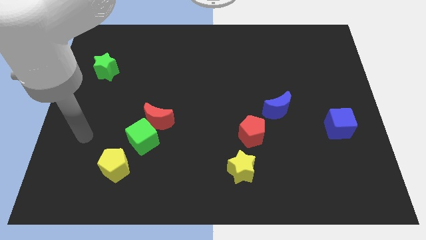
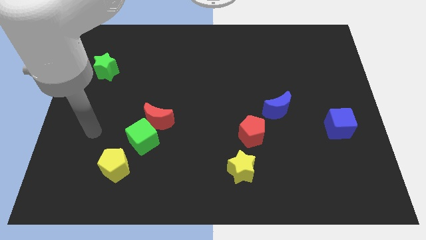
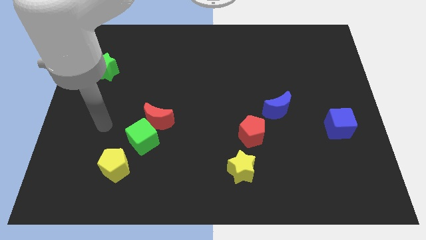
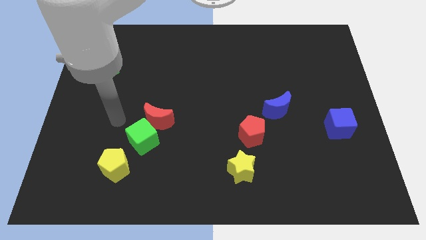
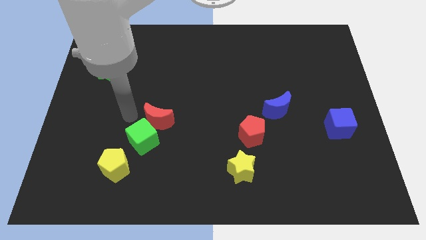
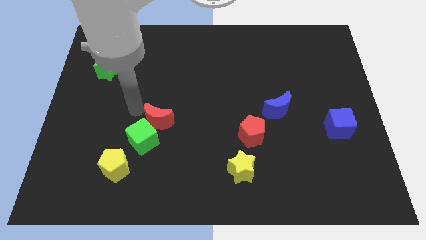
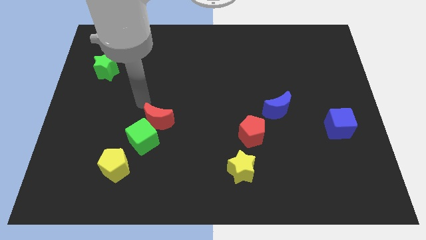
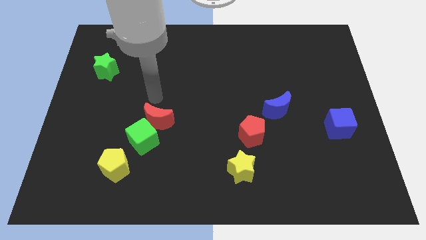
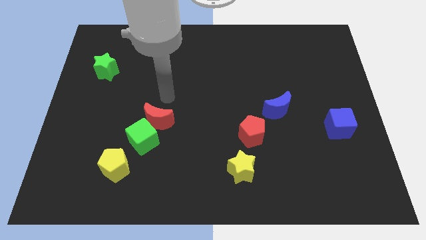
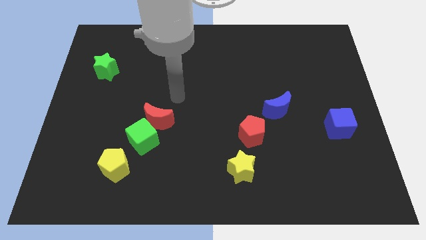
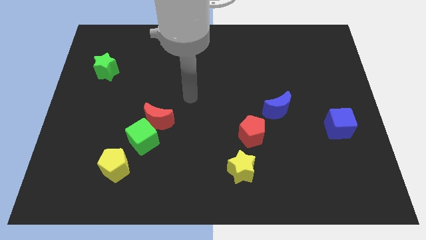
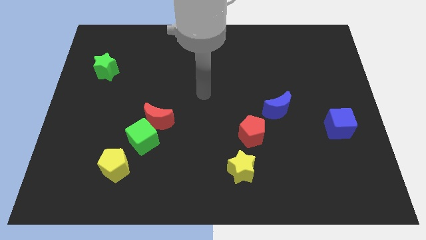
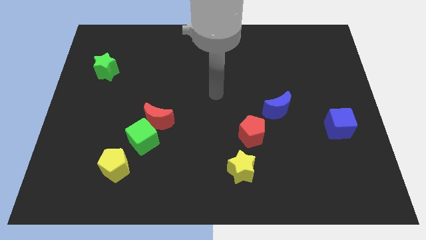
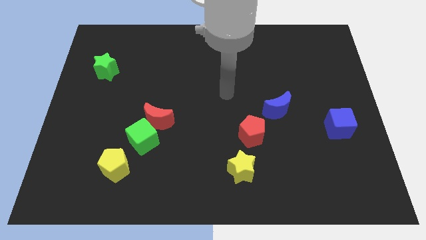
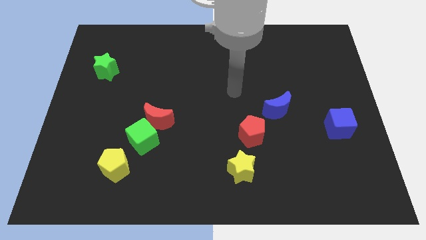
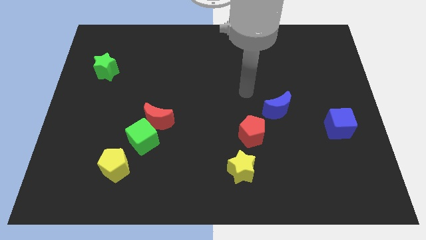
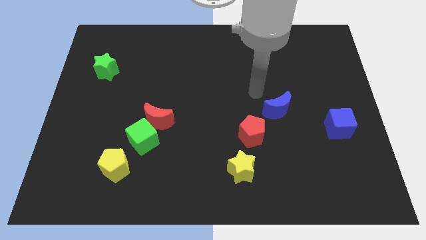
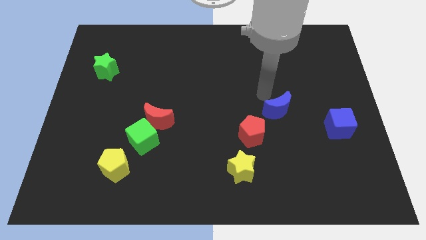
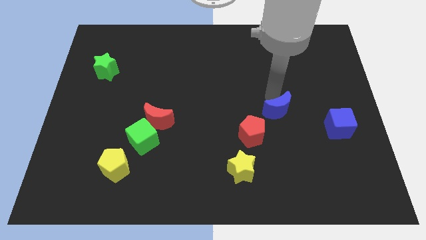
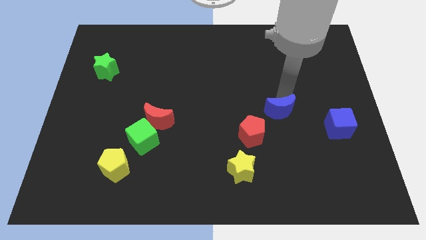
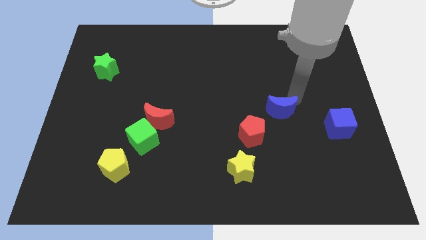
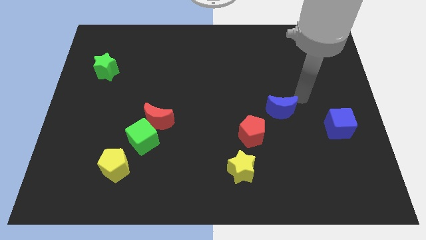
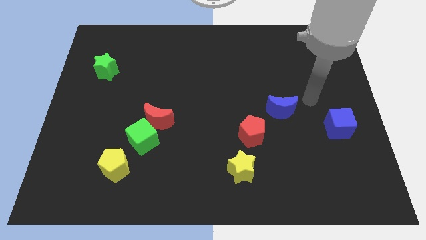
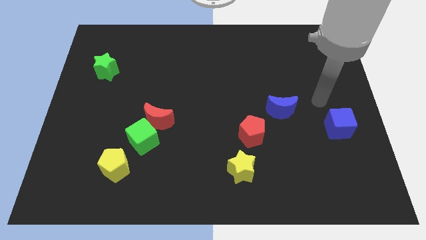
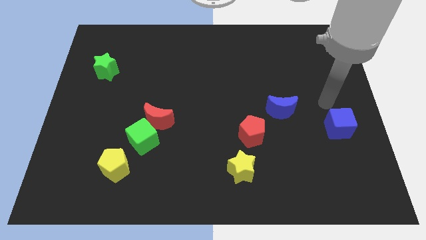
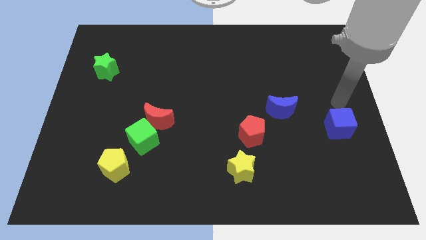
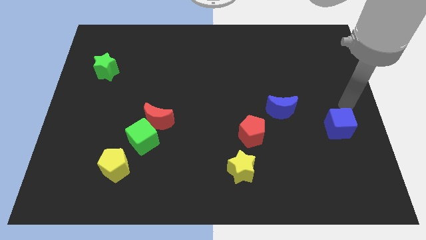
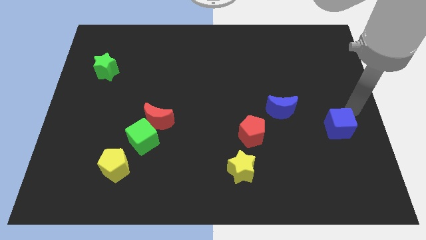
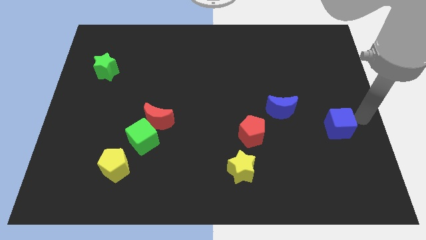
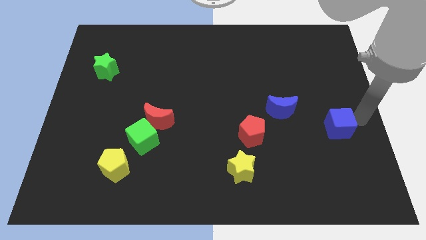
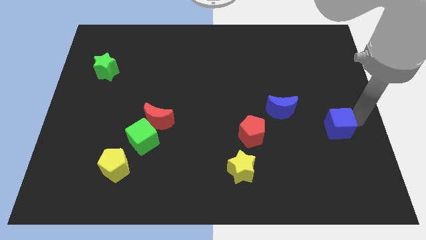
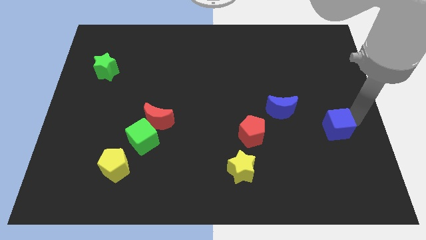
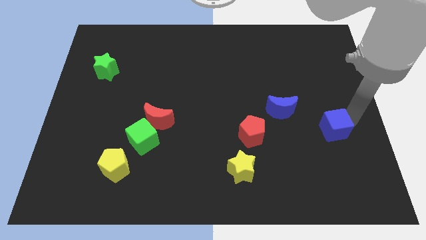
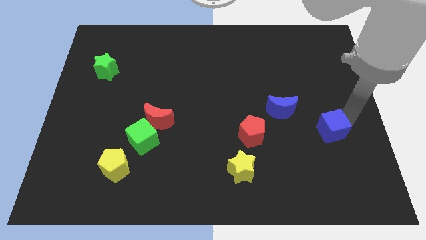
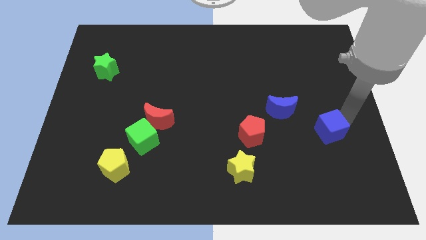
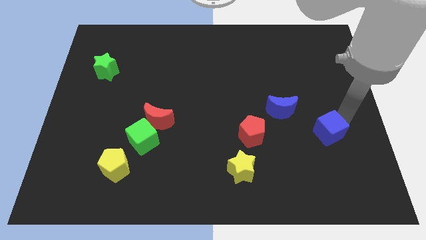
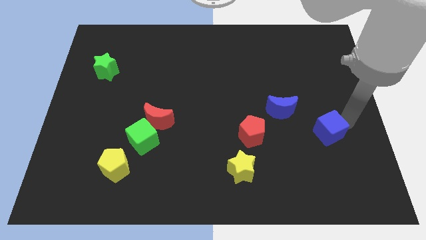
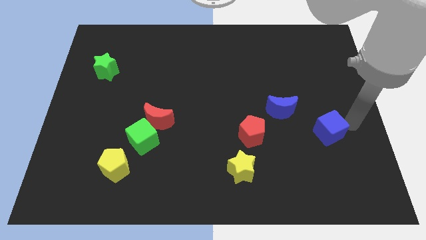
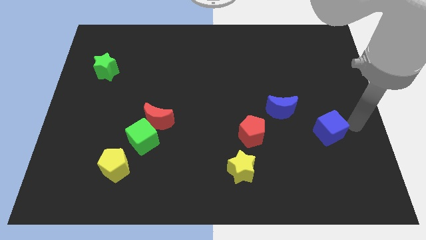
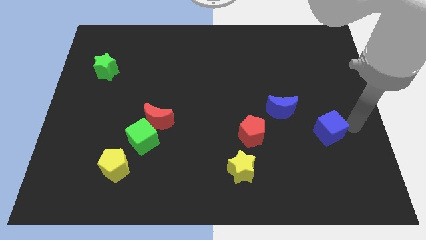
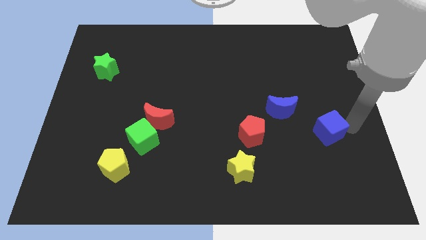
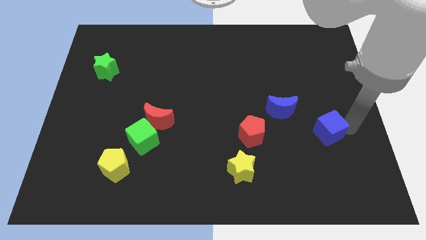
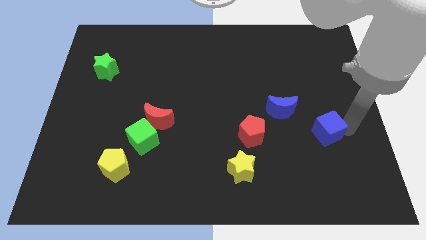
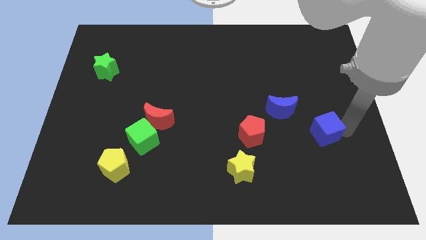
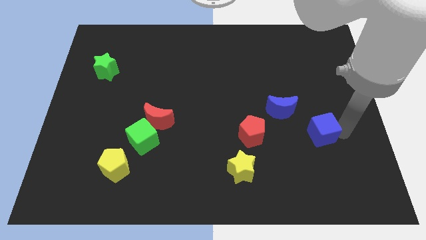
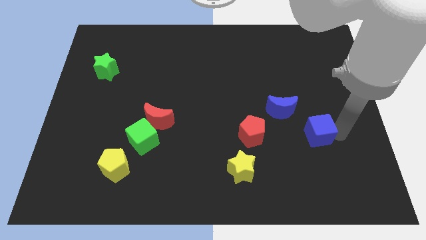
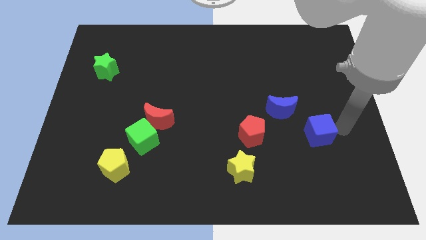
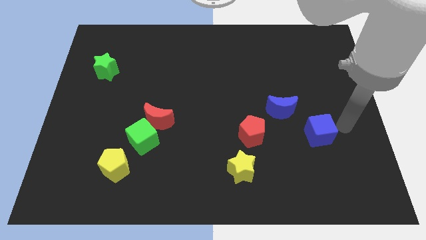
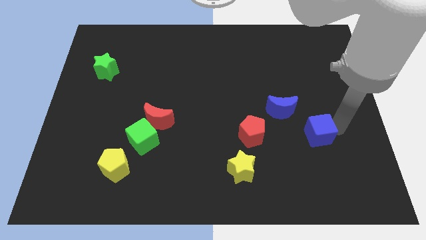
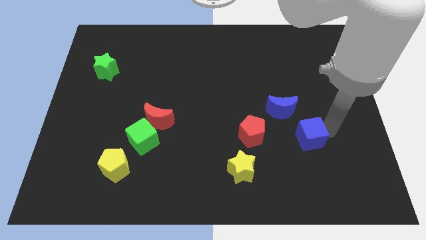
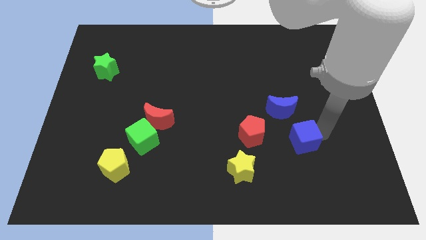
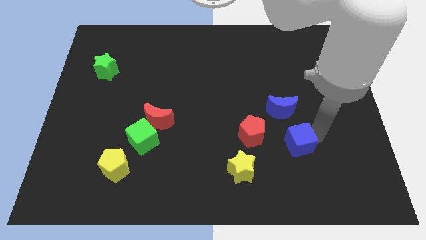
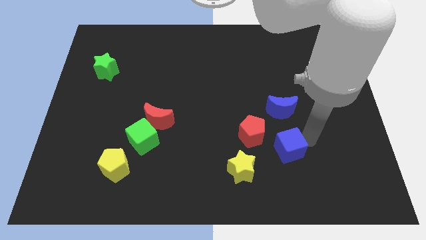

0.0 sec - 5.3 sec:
slide the blue cube to the top right of the yellow star

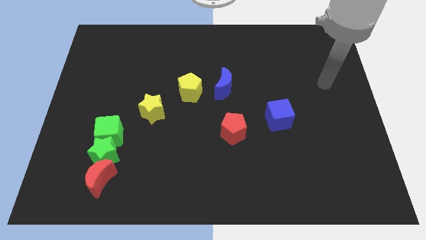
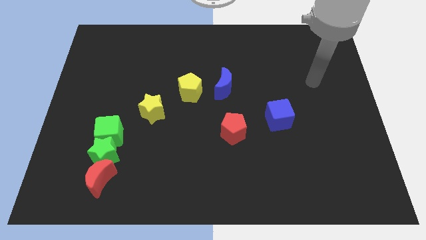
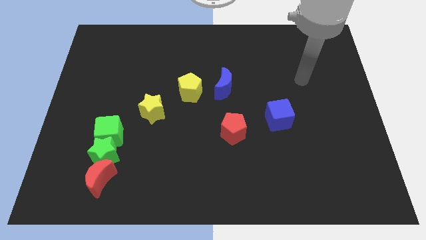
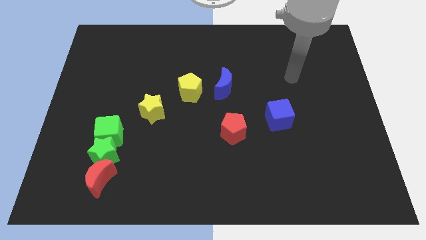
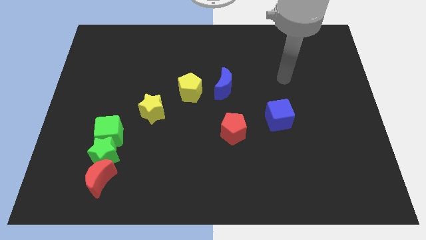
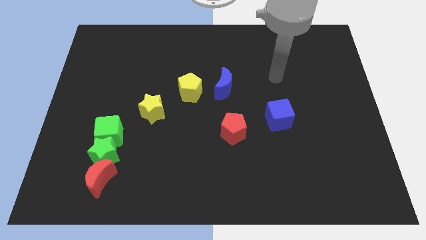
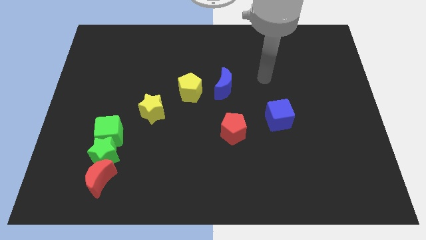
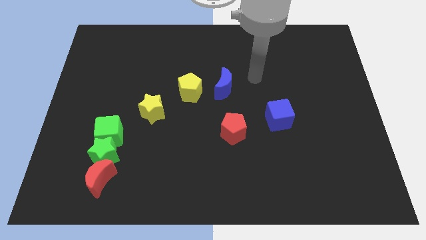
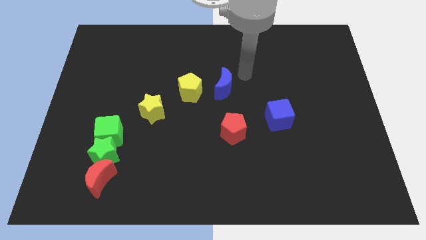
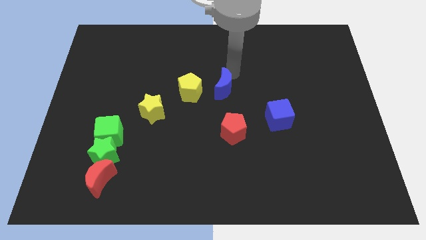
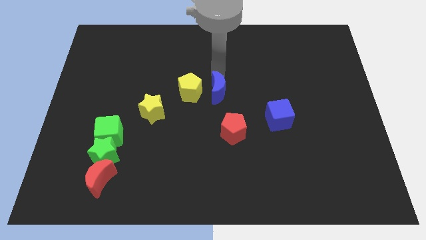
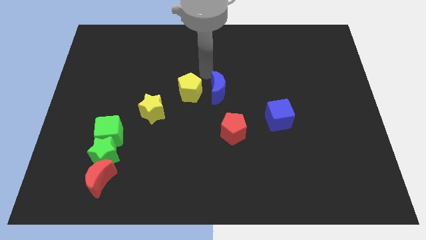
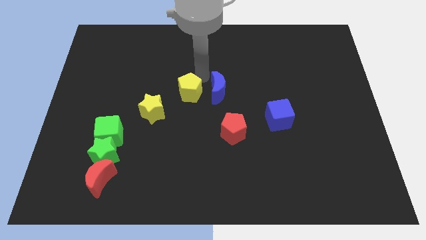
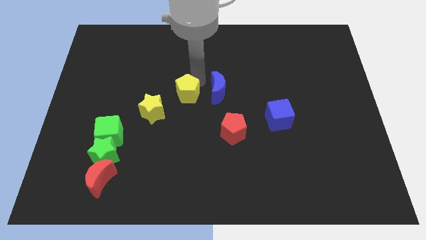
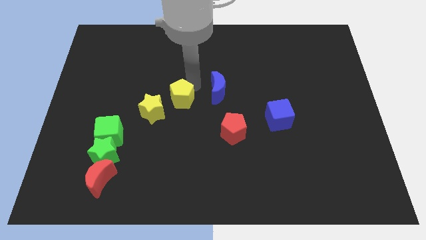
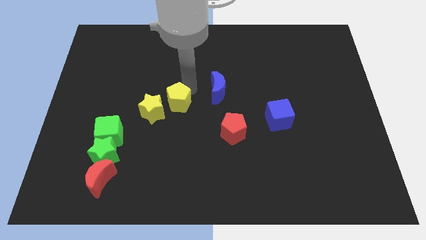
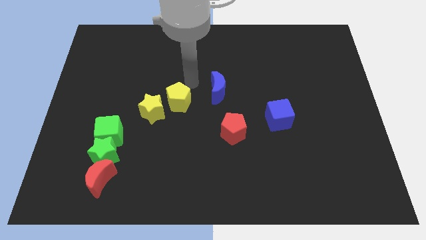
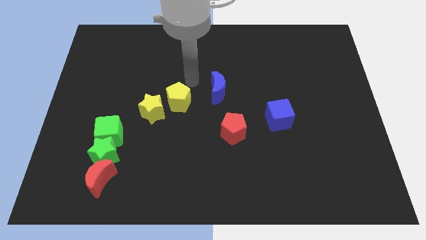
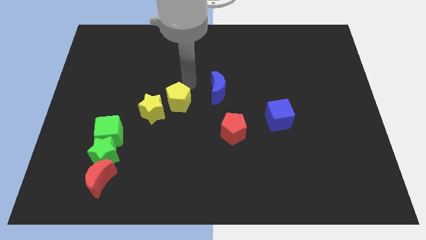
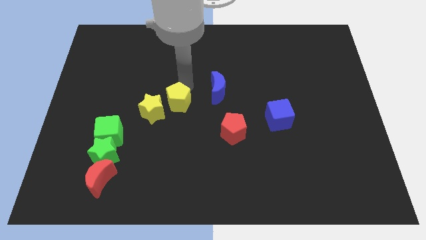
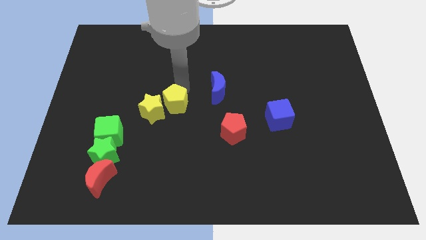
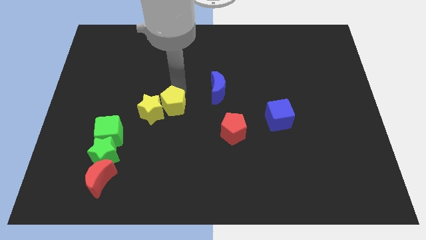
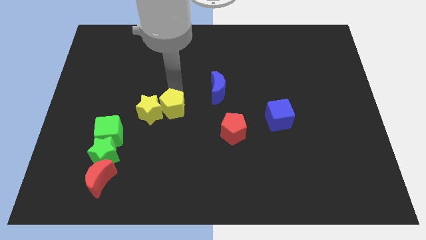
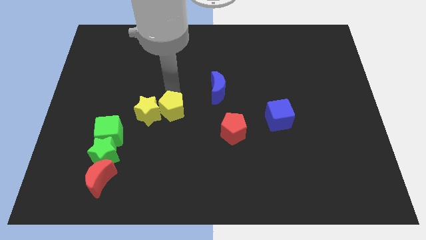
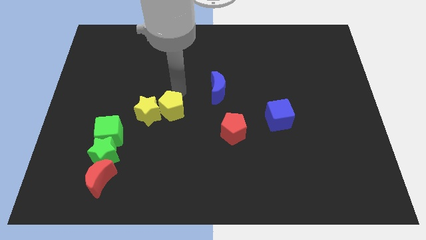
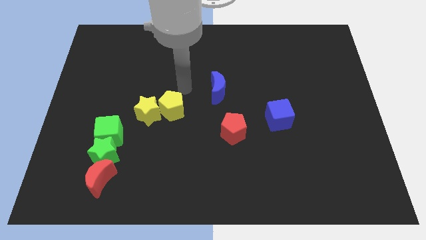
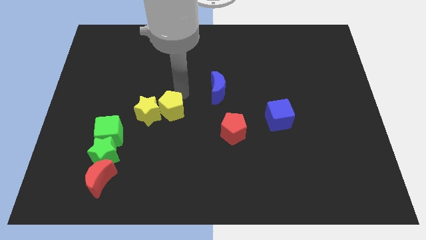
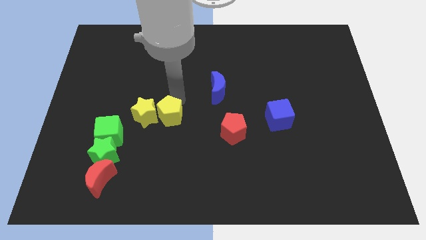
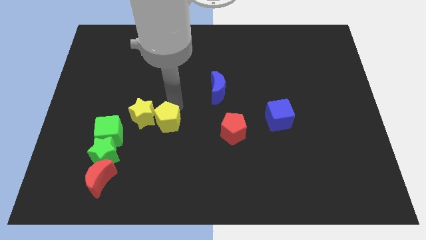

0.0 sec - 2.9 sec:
move the yellow pentagon right of the green cube
